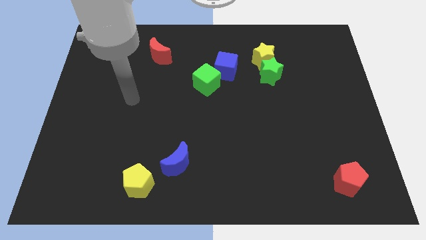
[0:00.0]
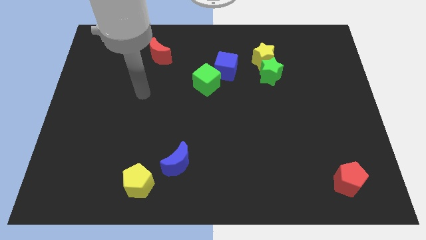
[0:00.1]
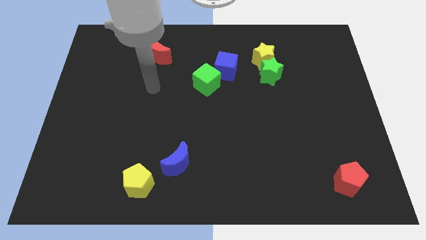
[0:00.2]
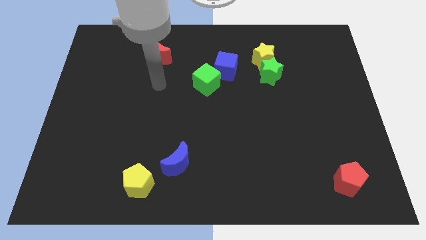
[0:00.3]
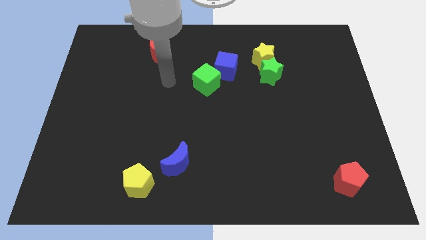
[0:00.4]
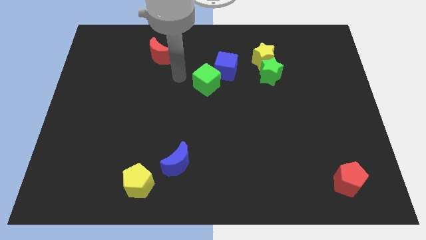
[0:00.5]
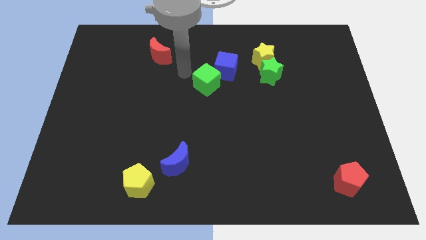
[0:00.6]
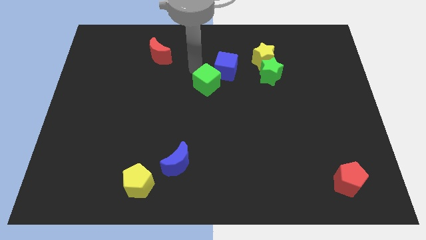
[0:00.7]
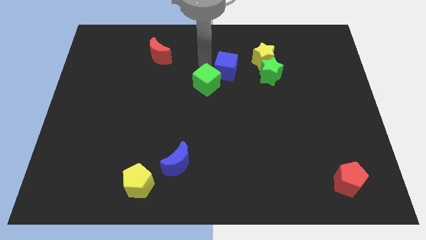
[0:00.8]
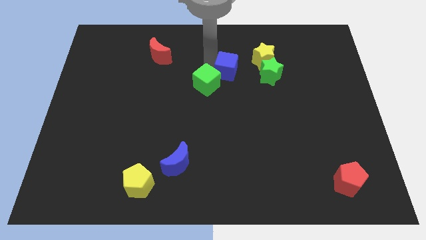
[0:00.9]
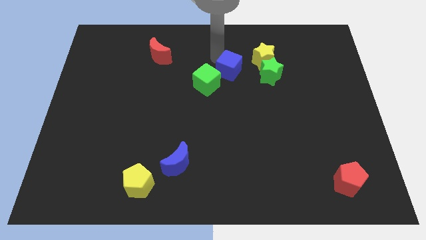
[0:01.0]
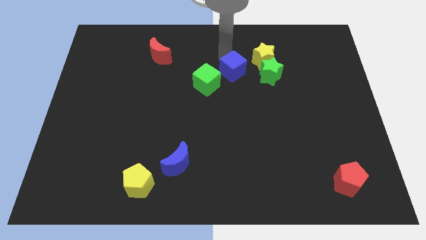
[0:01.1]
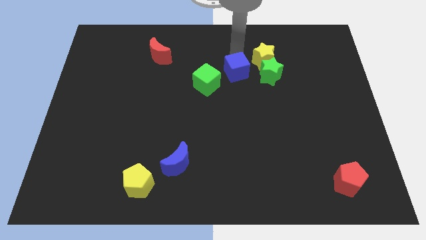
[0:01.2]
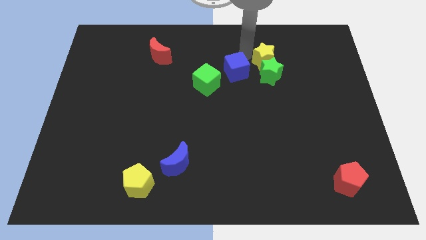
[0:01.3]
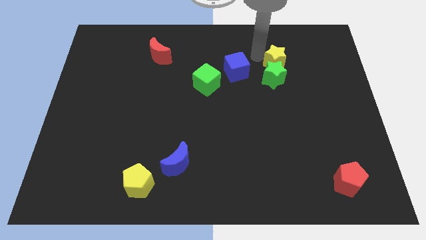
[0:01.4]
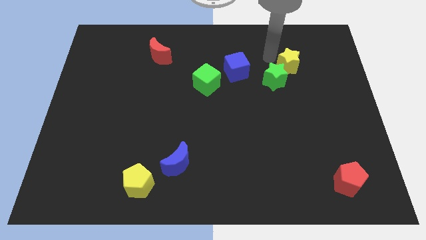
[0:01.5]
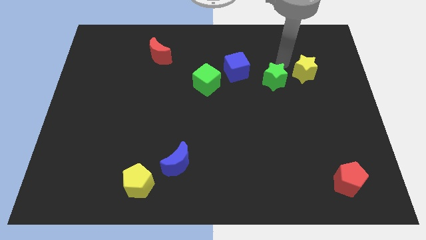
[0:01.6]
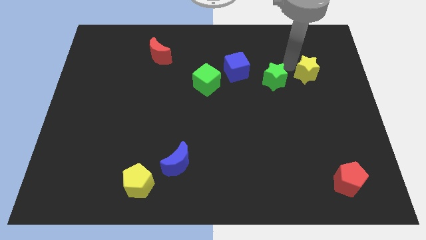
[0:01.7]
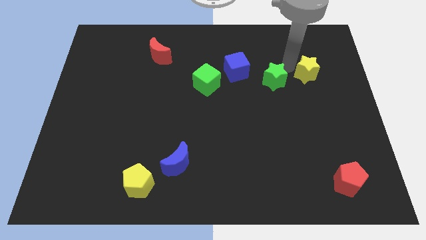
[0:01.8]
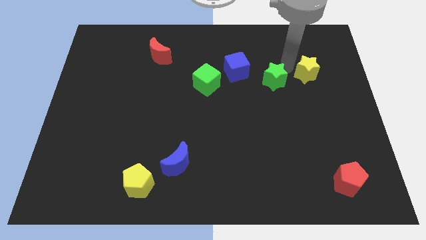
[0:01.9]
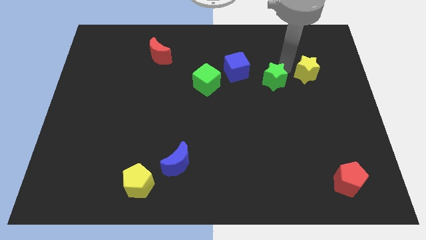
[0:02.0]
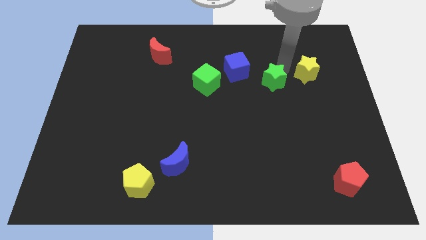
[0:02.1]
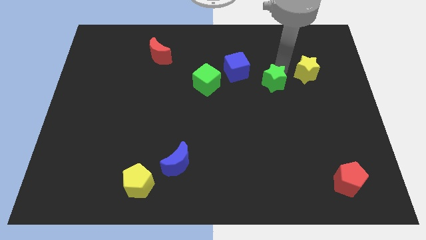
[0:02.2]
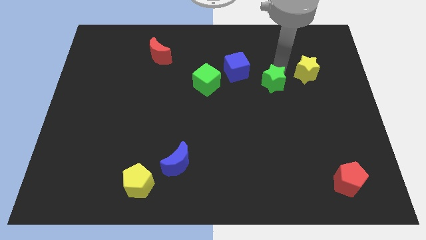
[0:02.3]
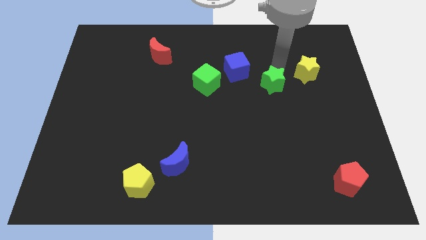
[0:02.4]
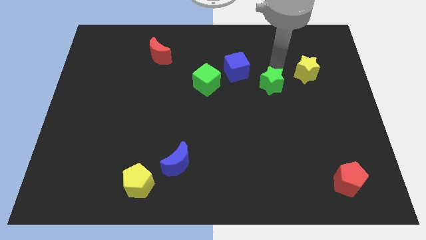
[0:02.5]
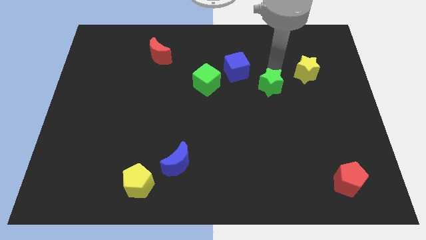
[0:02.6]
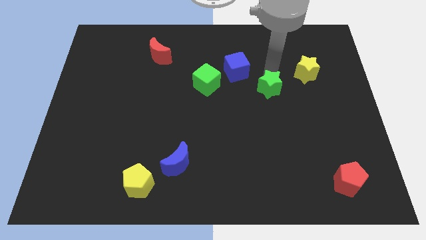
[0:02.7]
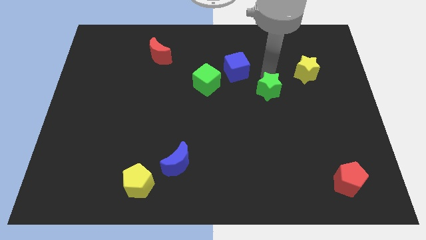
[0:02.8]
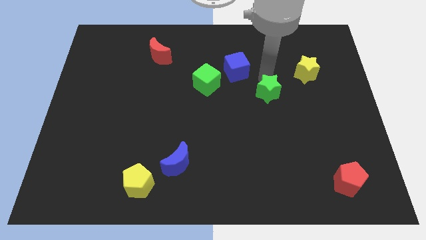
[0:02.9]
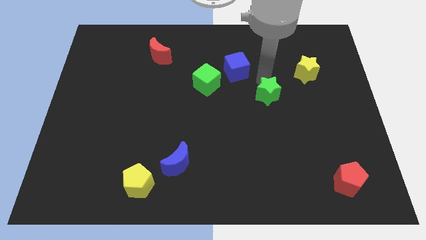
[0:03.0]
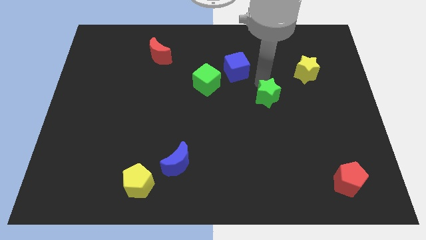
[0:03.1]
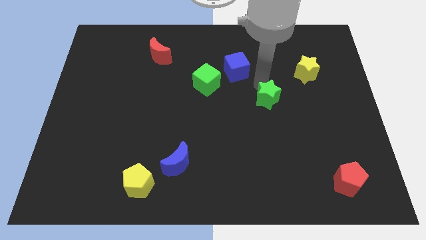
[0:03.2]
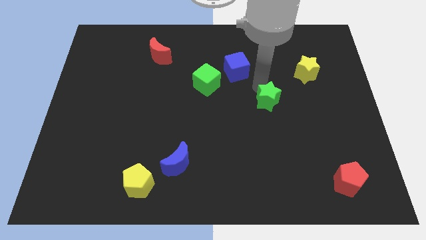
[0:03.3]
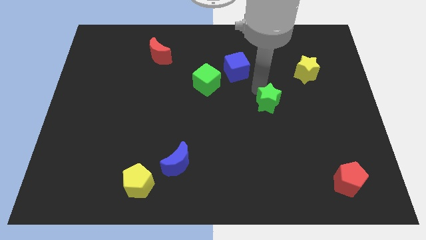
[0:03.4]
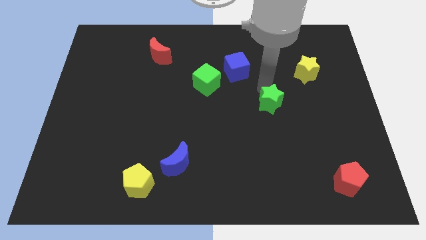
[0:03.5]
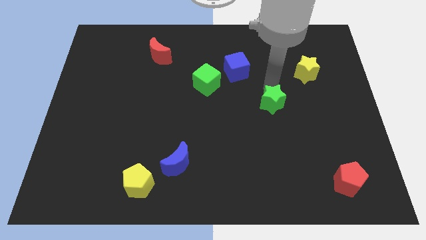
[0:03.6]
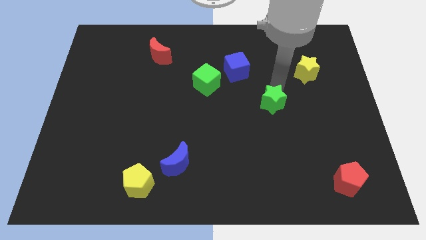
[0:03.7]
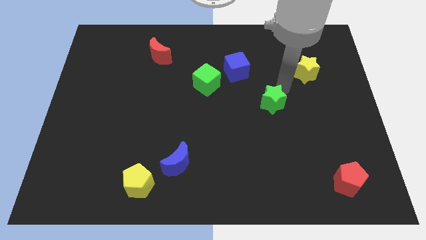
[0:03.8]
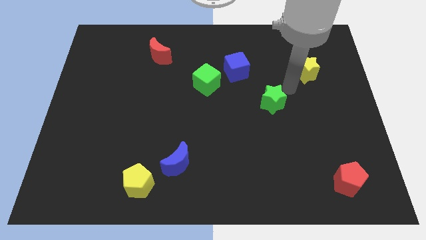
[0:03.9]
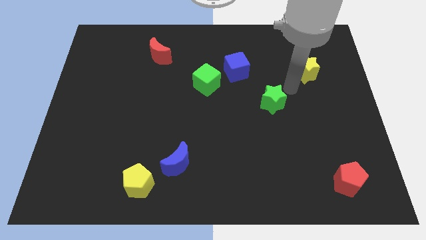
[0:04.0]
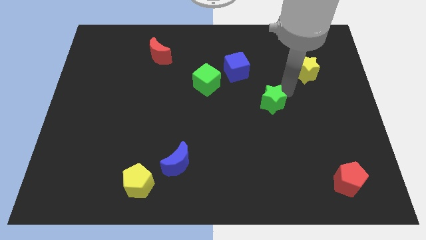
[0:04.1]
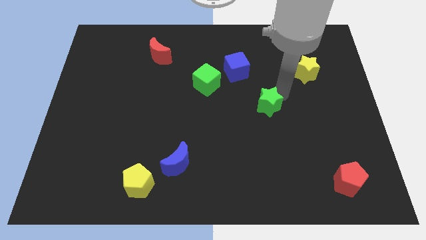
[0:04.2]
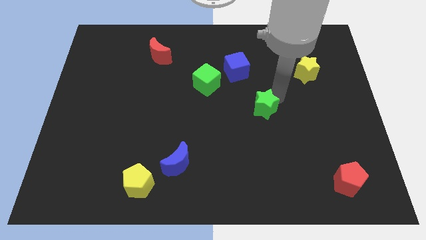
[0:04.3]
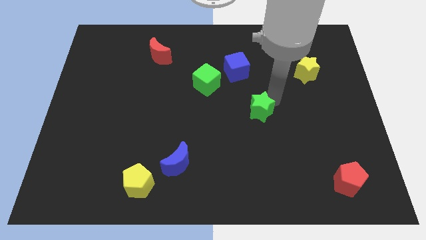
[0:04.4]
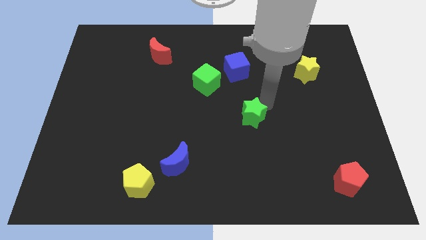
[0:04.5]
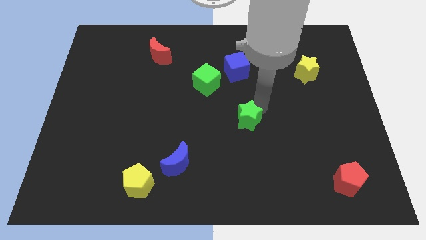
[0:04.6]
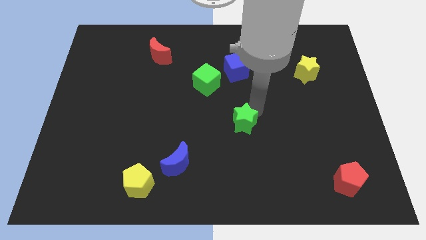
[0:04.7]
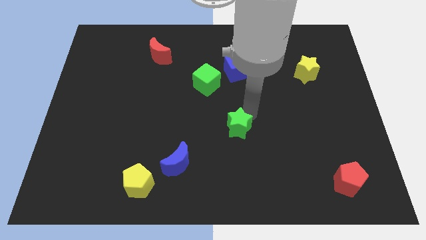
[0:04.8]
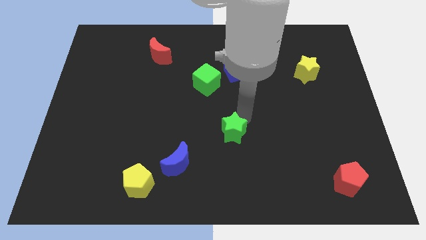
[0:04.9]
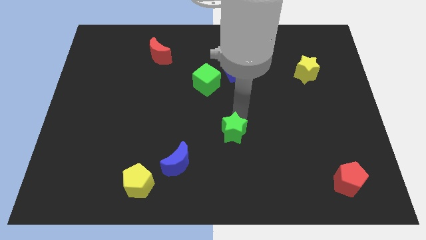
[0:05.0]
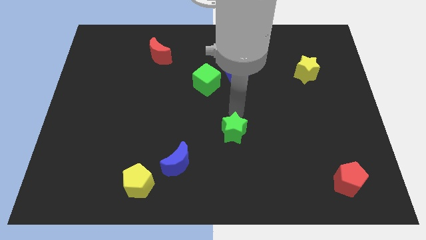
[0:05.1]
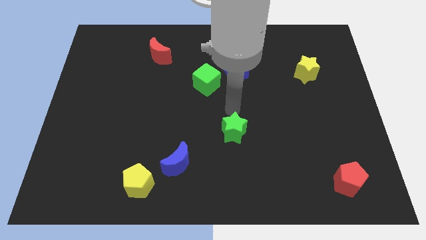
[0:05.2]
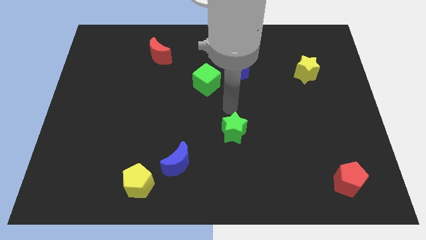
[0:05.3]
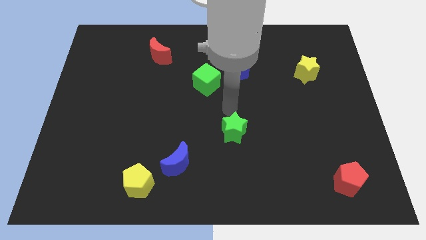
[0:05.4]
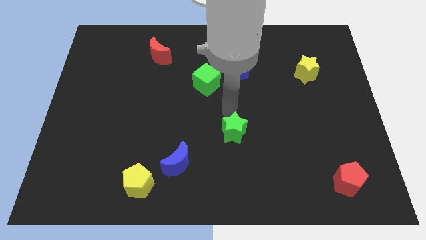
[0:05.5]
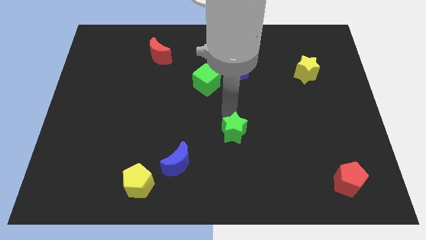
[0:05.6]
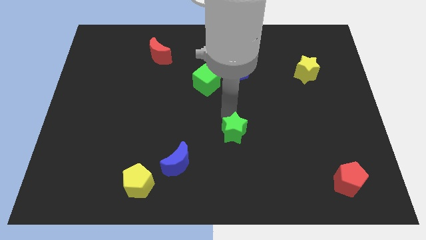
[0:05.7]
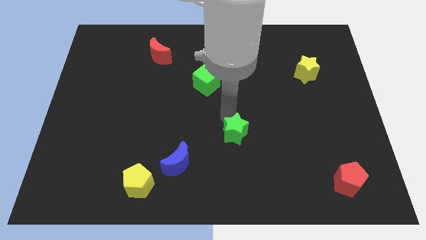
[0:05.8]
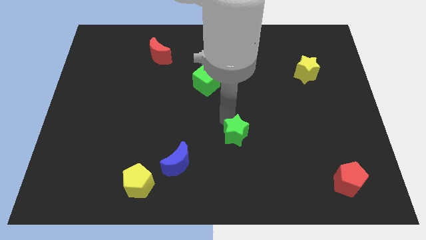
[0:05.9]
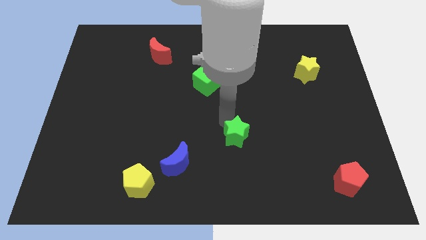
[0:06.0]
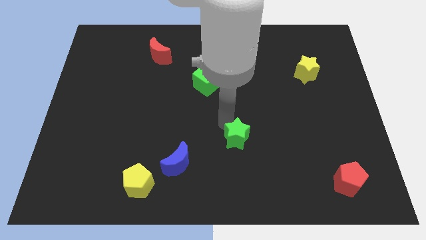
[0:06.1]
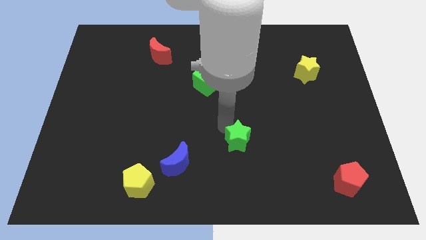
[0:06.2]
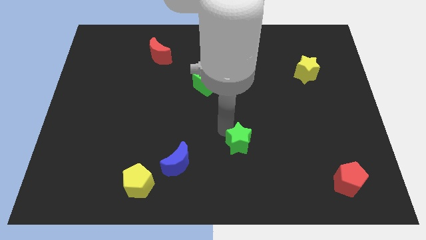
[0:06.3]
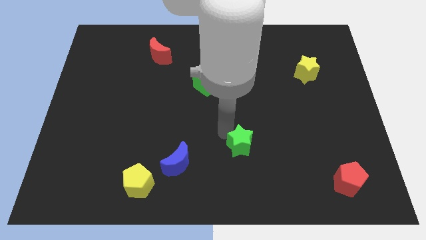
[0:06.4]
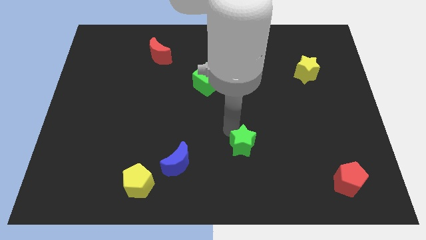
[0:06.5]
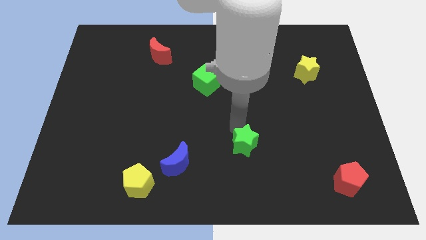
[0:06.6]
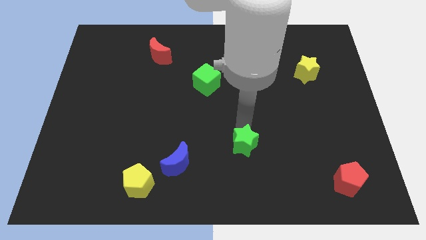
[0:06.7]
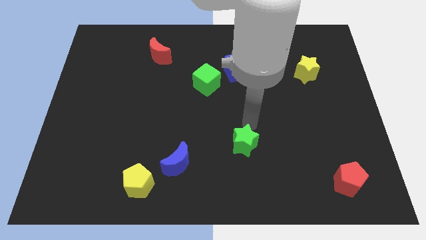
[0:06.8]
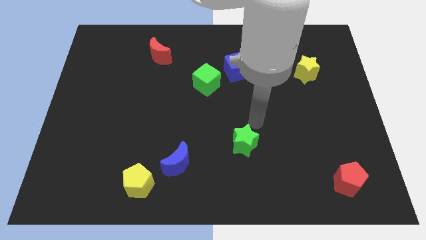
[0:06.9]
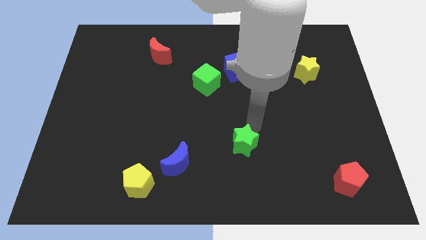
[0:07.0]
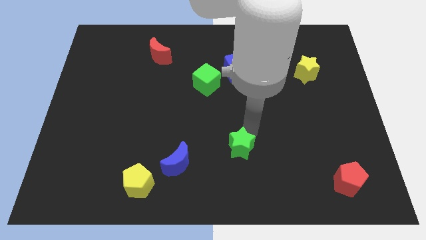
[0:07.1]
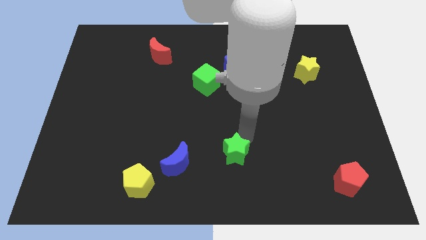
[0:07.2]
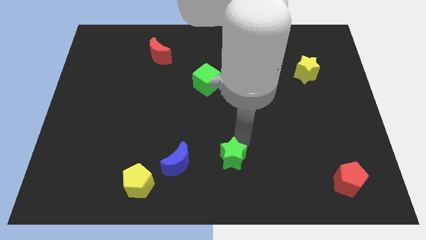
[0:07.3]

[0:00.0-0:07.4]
put the green star to the bottom side
